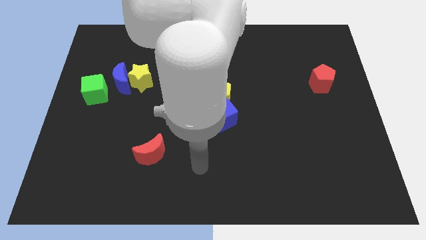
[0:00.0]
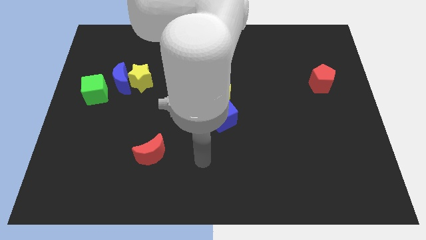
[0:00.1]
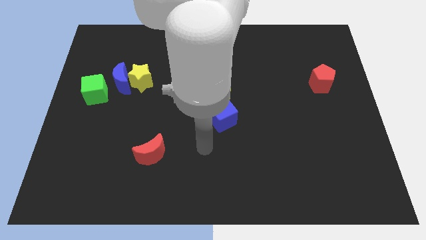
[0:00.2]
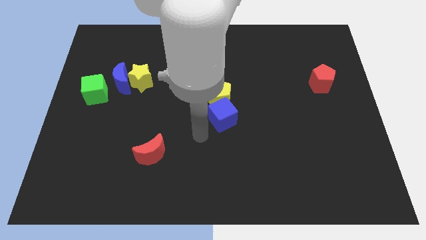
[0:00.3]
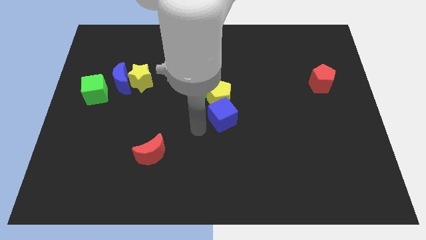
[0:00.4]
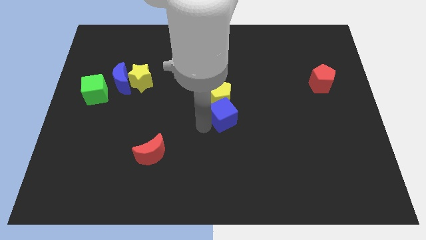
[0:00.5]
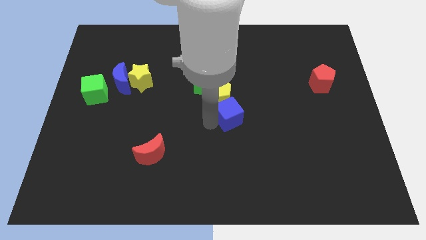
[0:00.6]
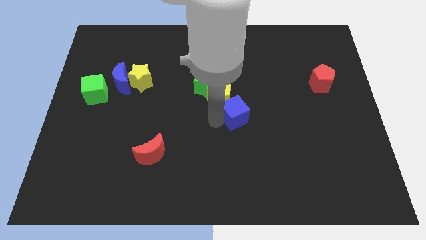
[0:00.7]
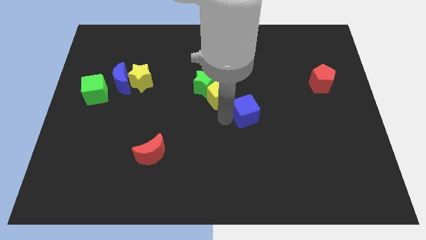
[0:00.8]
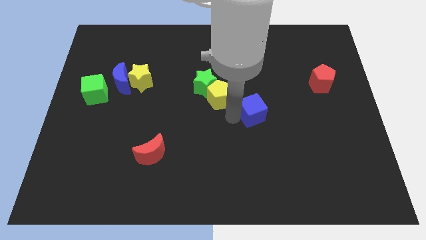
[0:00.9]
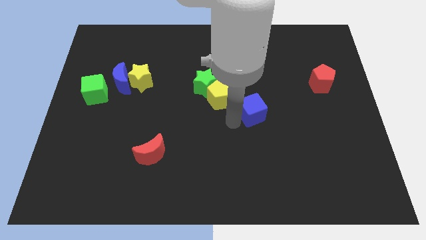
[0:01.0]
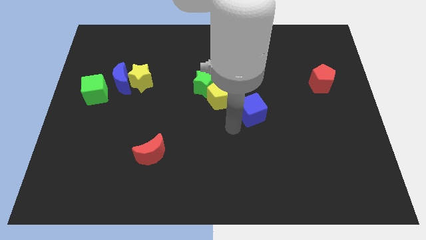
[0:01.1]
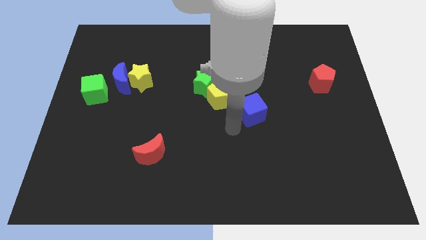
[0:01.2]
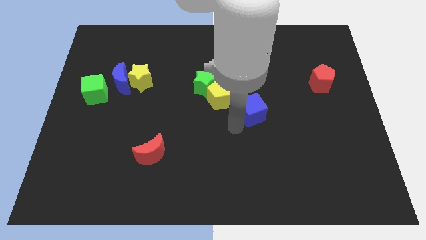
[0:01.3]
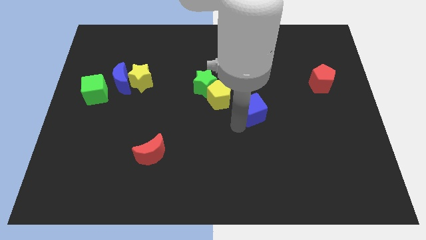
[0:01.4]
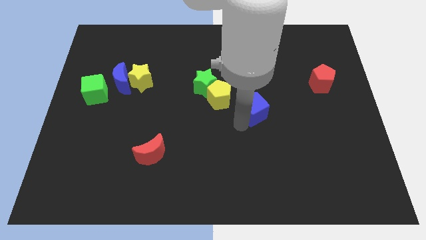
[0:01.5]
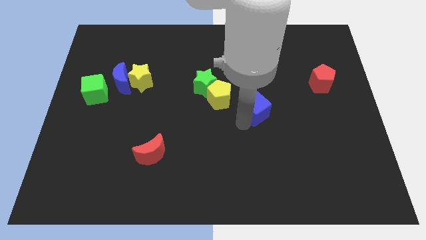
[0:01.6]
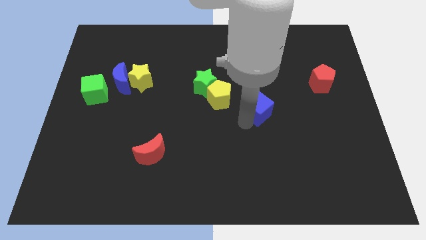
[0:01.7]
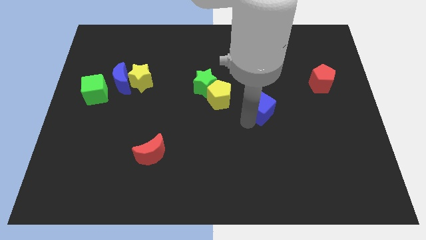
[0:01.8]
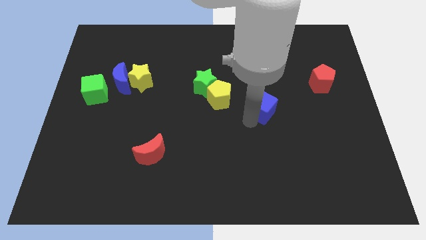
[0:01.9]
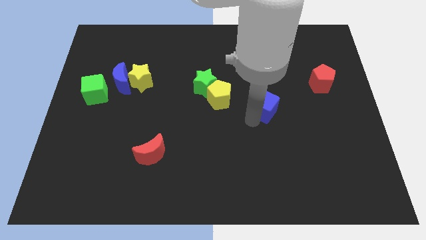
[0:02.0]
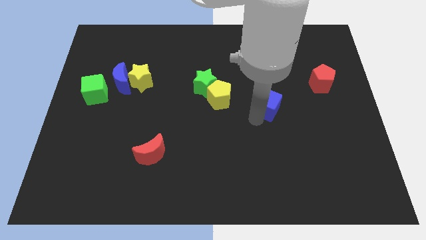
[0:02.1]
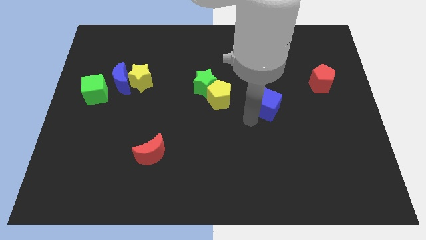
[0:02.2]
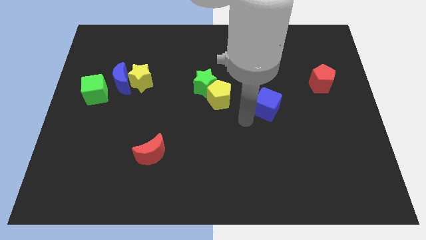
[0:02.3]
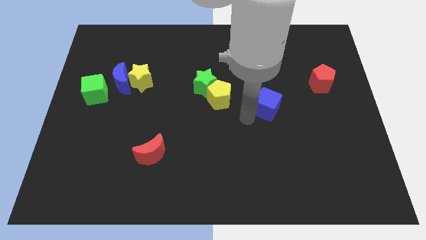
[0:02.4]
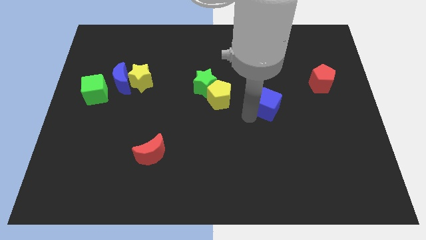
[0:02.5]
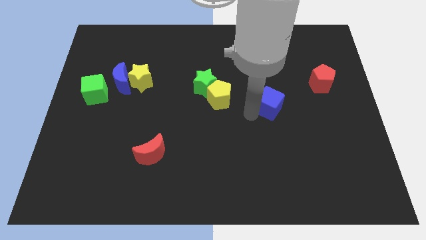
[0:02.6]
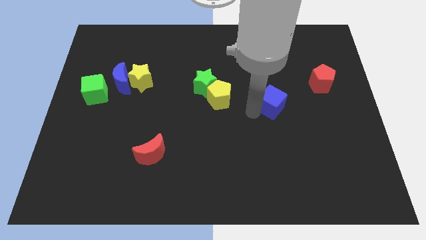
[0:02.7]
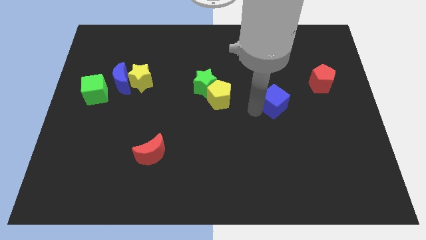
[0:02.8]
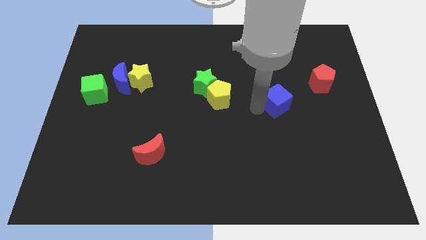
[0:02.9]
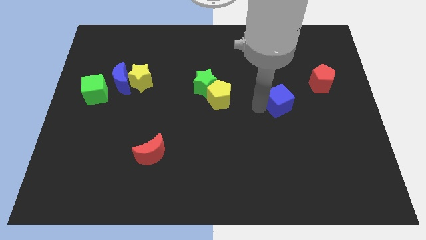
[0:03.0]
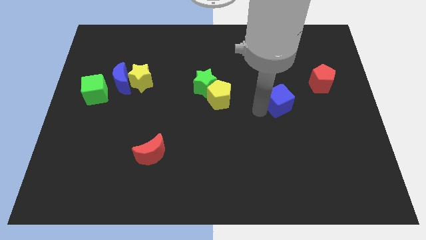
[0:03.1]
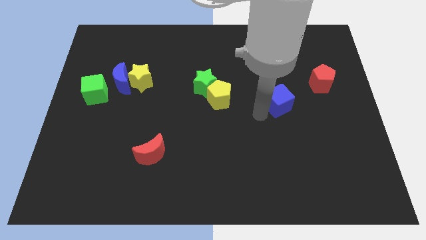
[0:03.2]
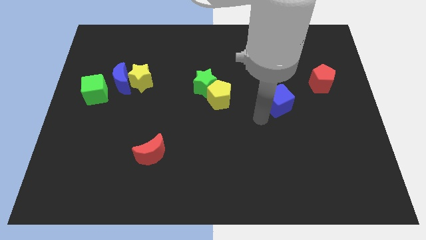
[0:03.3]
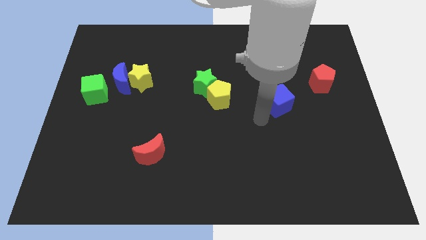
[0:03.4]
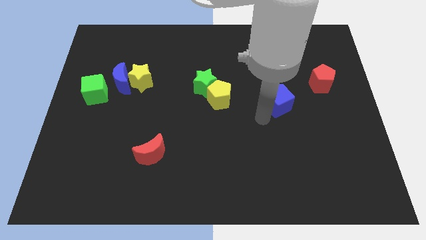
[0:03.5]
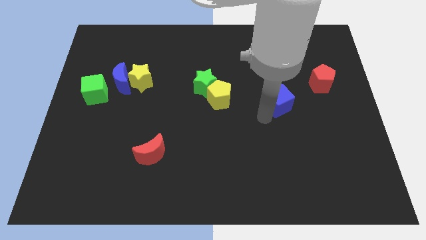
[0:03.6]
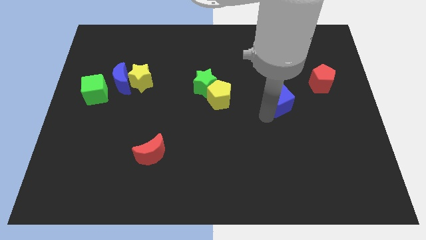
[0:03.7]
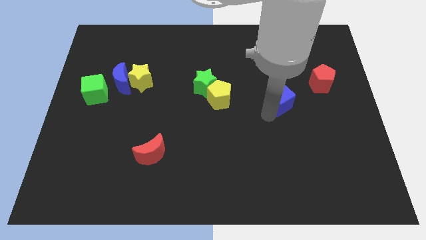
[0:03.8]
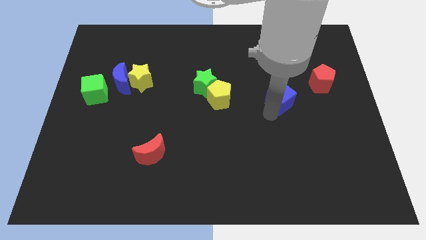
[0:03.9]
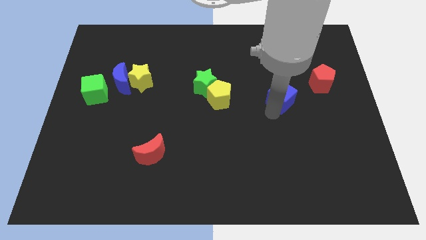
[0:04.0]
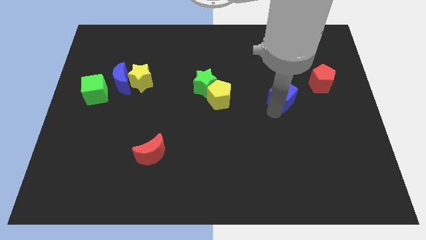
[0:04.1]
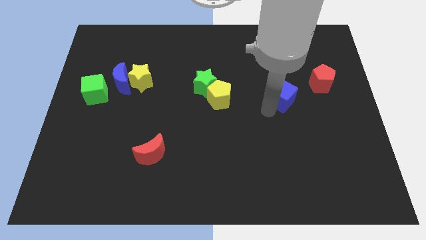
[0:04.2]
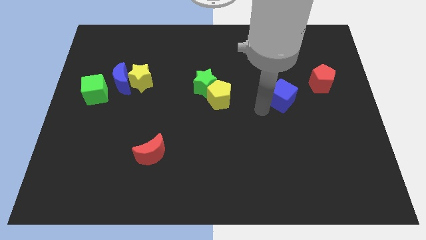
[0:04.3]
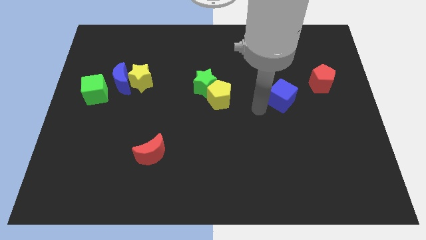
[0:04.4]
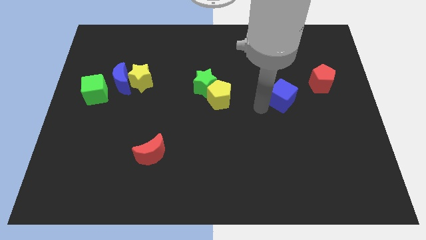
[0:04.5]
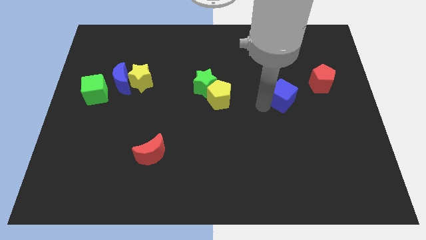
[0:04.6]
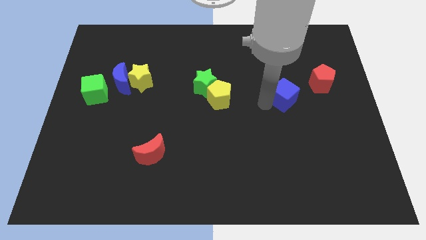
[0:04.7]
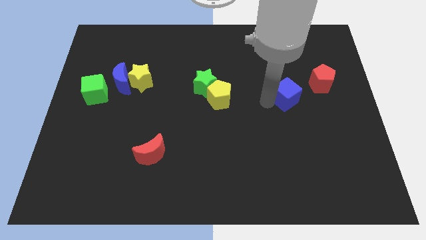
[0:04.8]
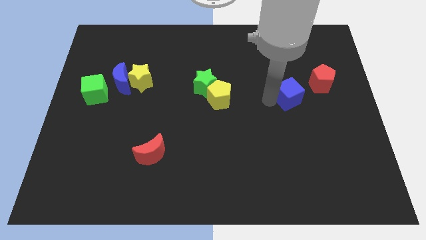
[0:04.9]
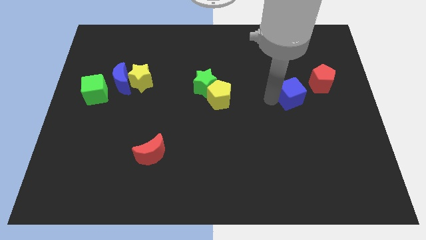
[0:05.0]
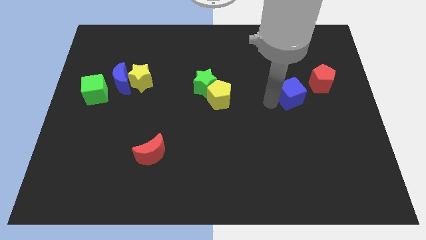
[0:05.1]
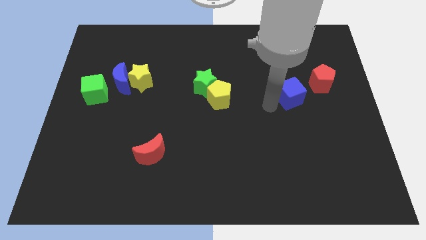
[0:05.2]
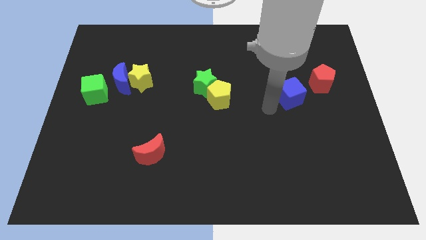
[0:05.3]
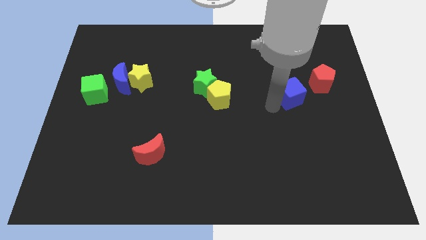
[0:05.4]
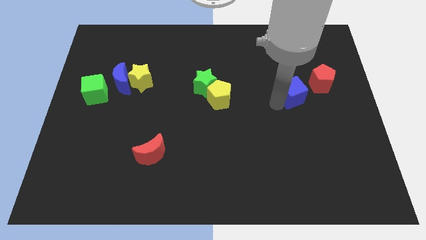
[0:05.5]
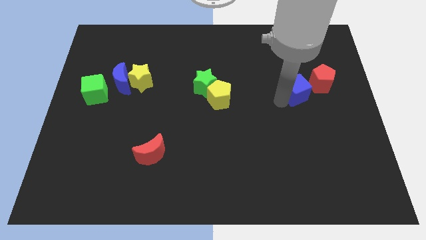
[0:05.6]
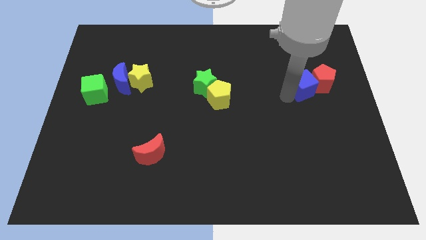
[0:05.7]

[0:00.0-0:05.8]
push the blue cube to the red pentagon

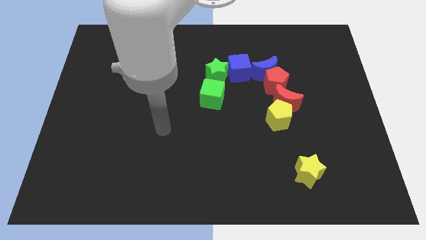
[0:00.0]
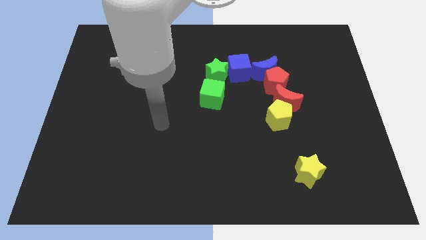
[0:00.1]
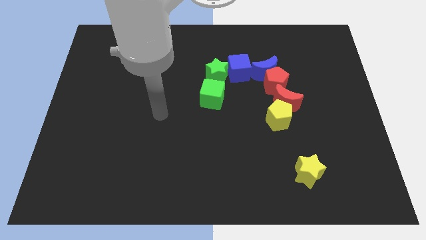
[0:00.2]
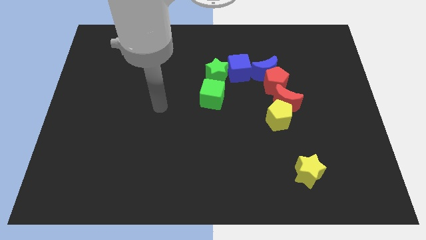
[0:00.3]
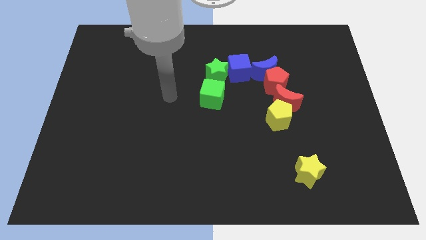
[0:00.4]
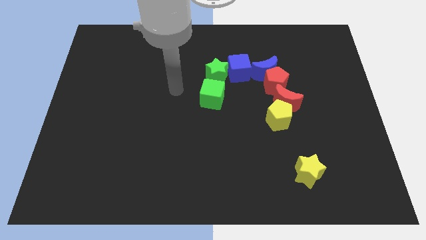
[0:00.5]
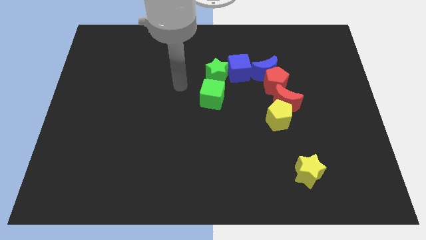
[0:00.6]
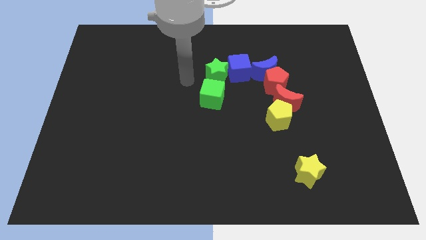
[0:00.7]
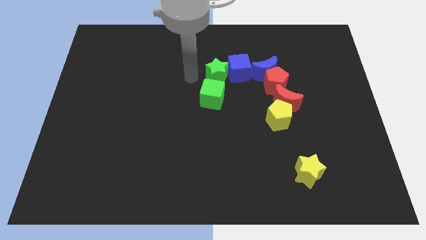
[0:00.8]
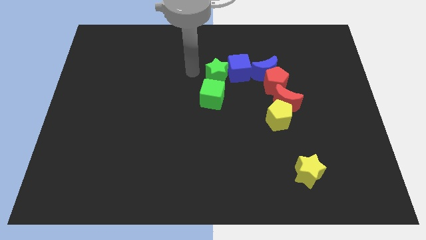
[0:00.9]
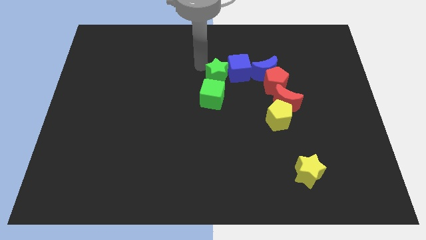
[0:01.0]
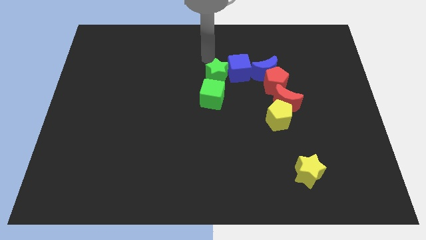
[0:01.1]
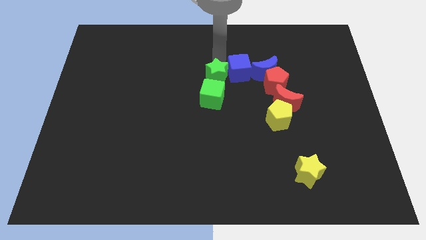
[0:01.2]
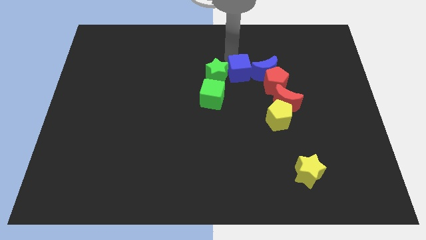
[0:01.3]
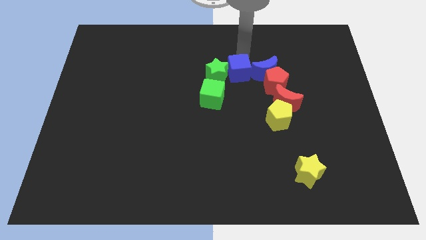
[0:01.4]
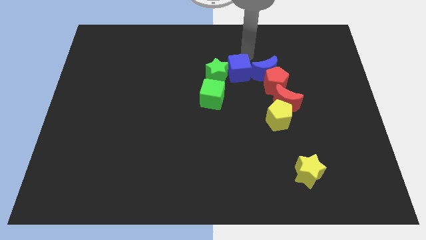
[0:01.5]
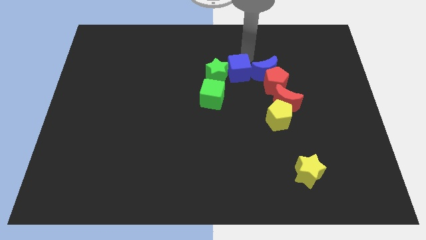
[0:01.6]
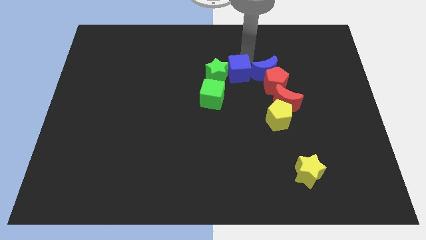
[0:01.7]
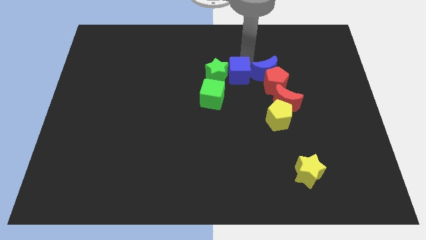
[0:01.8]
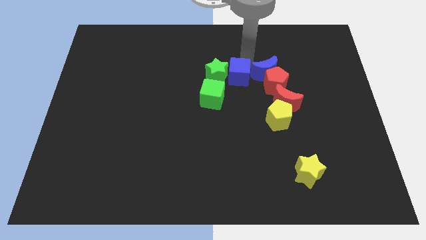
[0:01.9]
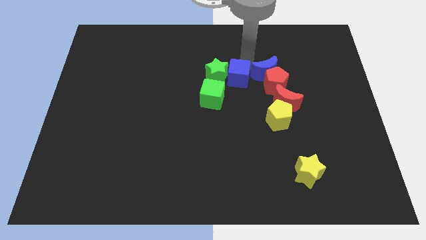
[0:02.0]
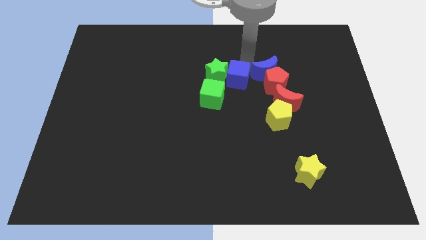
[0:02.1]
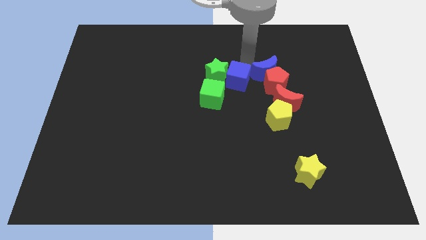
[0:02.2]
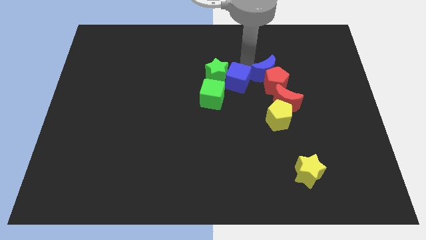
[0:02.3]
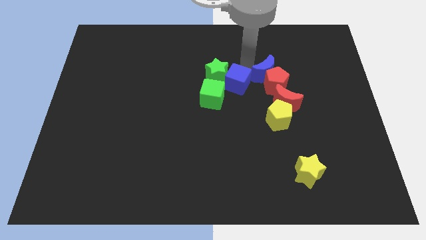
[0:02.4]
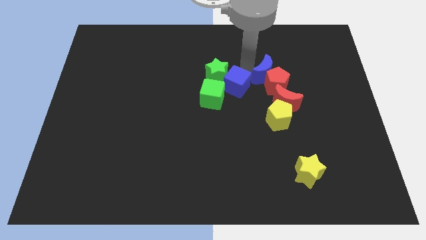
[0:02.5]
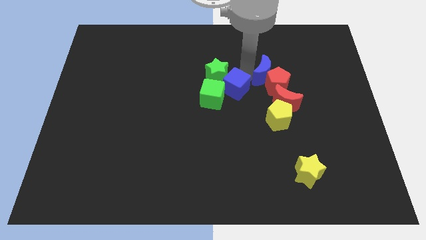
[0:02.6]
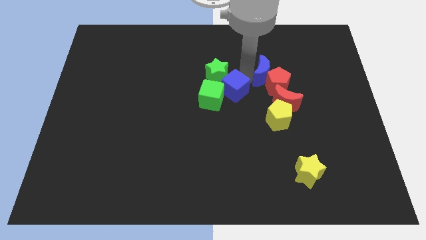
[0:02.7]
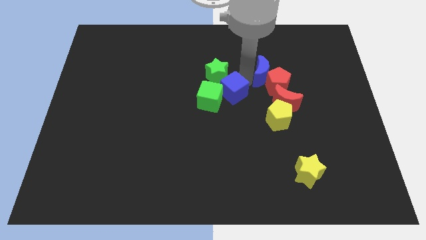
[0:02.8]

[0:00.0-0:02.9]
push the blue cube close to the green cube
